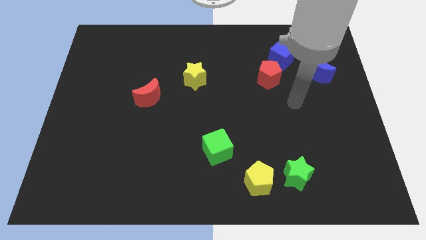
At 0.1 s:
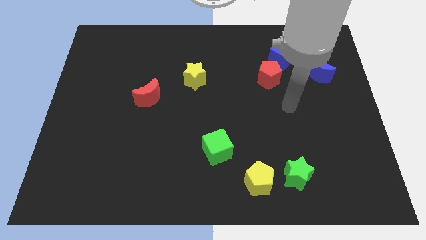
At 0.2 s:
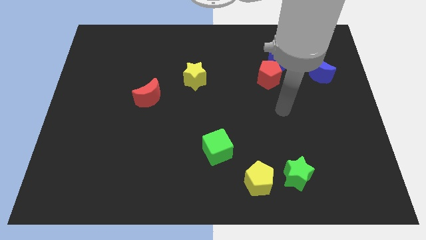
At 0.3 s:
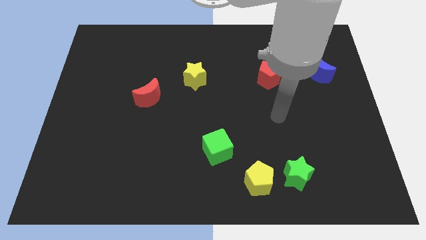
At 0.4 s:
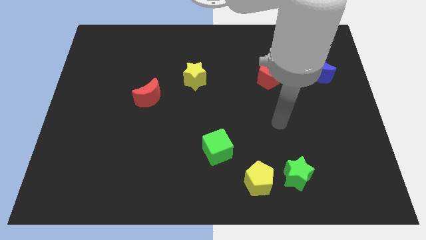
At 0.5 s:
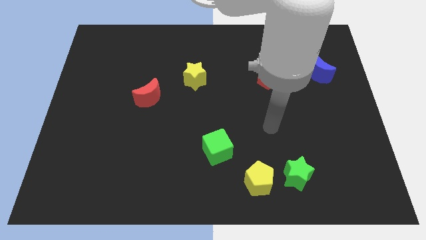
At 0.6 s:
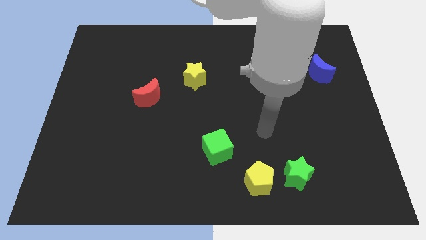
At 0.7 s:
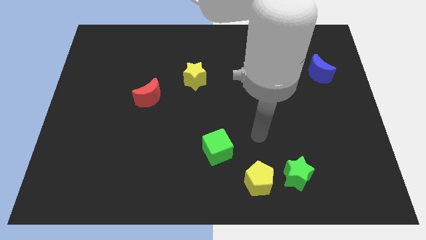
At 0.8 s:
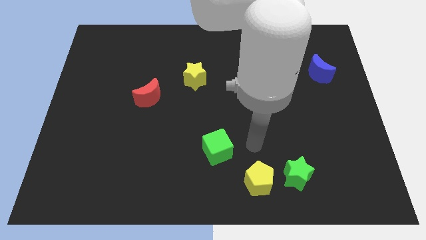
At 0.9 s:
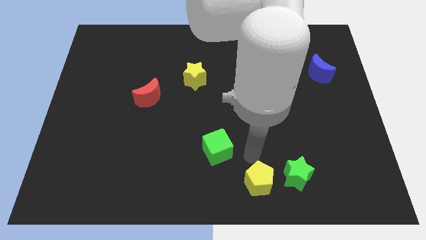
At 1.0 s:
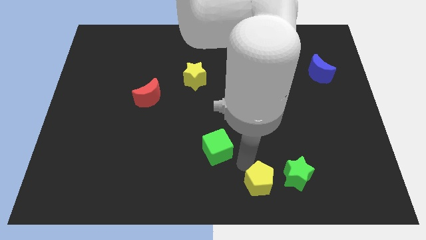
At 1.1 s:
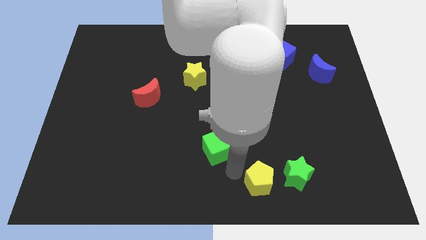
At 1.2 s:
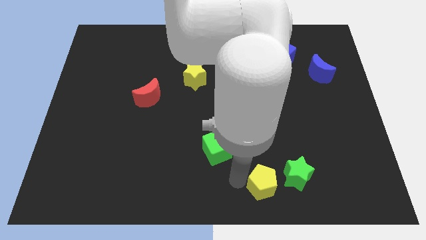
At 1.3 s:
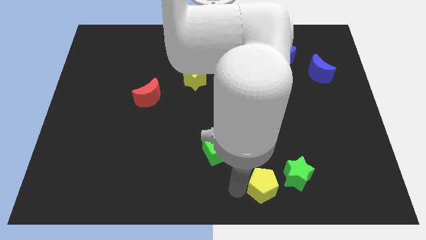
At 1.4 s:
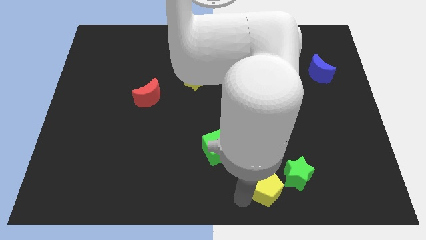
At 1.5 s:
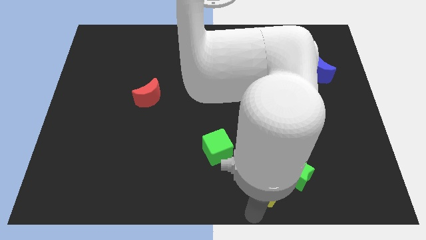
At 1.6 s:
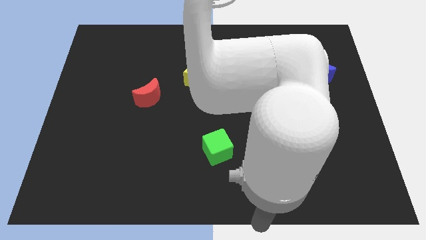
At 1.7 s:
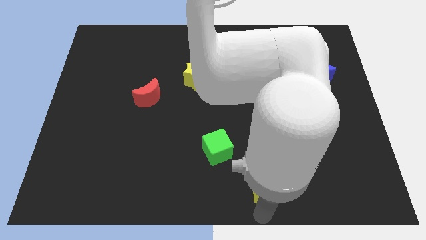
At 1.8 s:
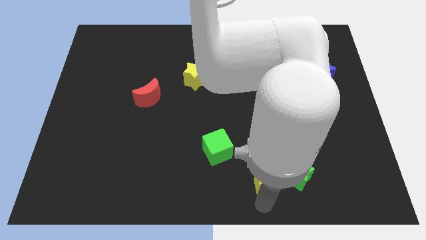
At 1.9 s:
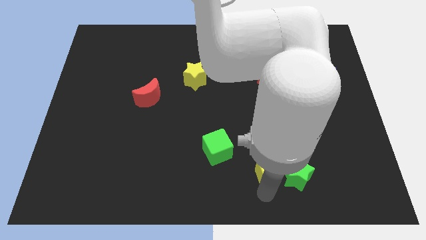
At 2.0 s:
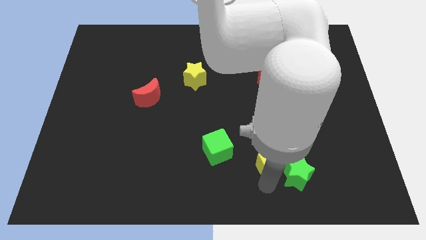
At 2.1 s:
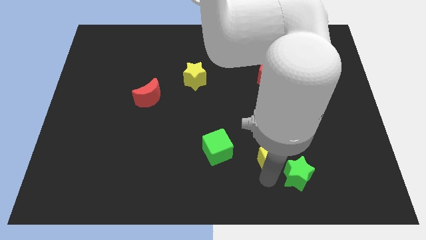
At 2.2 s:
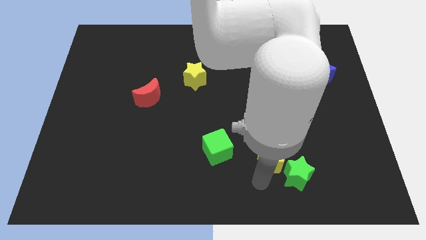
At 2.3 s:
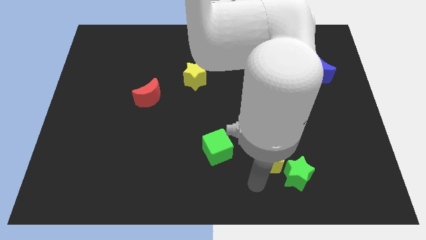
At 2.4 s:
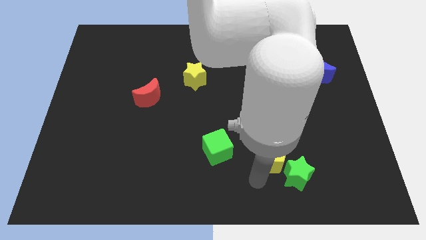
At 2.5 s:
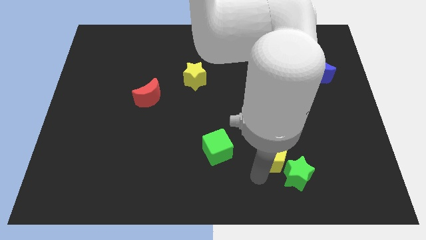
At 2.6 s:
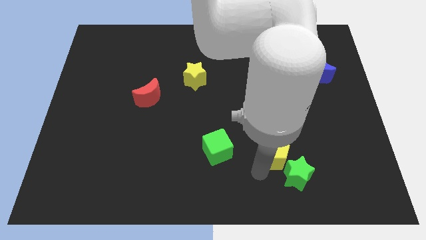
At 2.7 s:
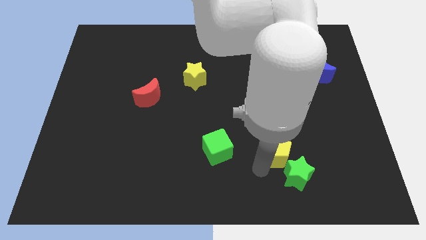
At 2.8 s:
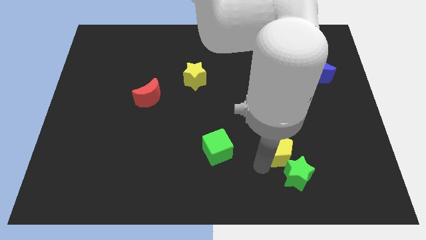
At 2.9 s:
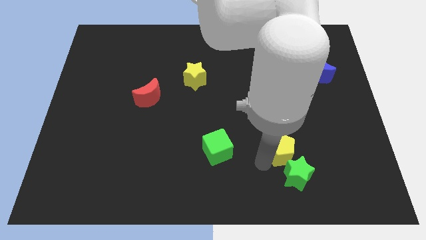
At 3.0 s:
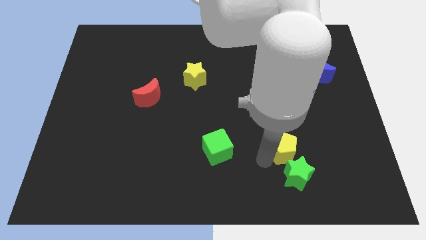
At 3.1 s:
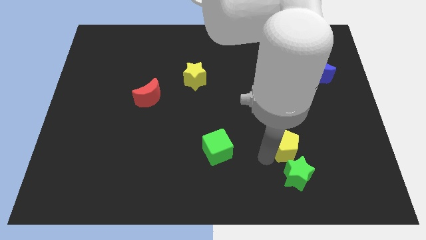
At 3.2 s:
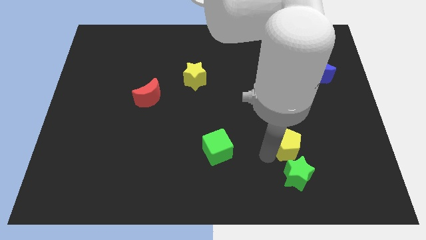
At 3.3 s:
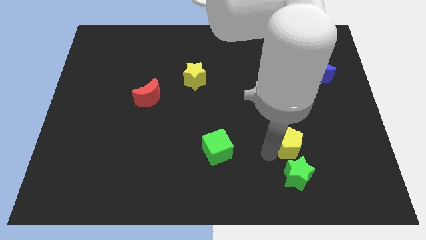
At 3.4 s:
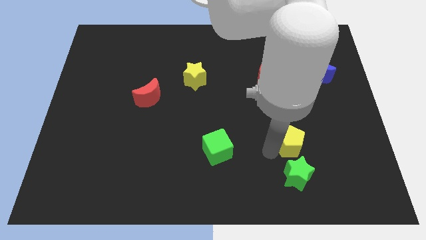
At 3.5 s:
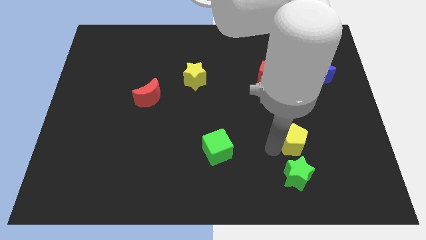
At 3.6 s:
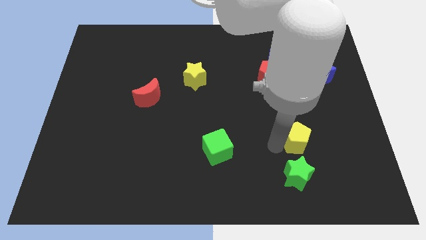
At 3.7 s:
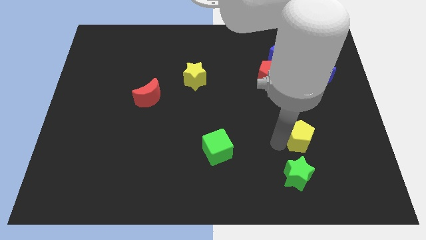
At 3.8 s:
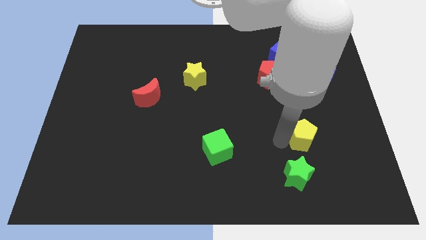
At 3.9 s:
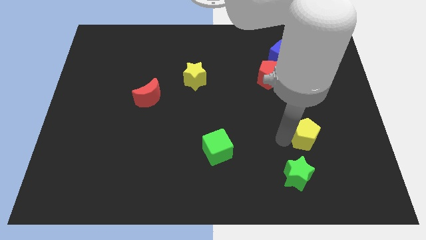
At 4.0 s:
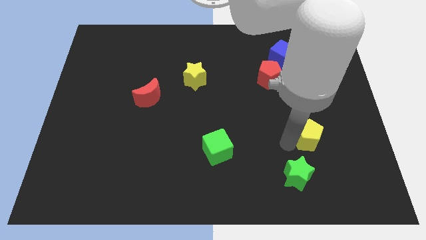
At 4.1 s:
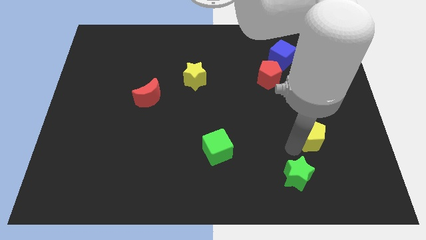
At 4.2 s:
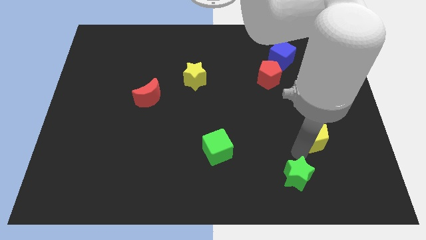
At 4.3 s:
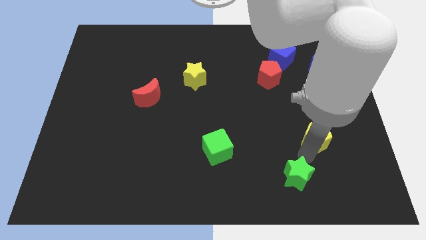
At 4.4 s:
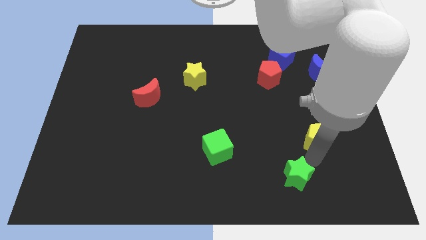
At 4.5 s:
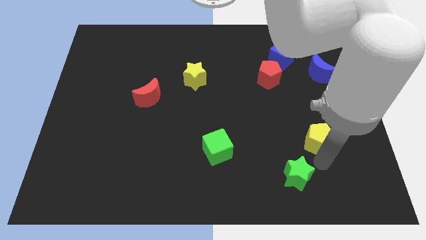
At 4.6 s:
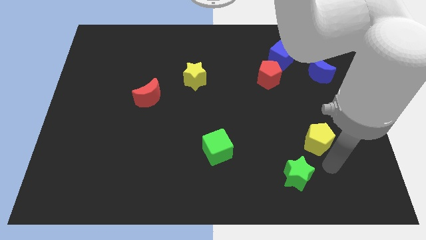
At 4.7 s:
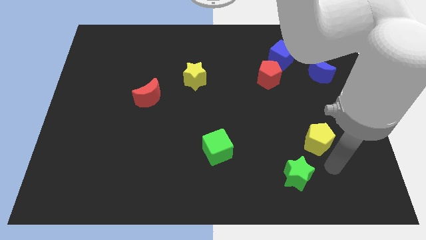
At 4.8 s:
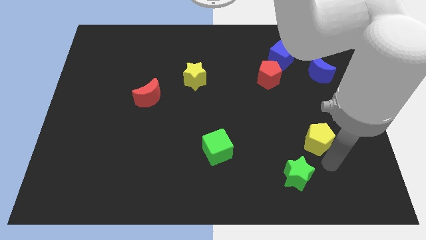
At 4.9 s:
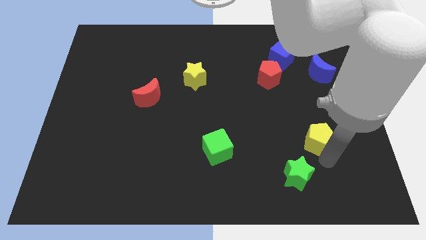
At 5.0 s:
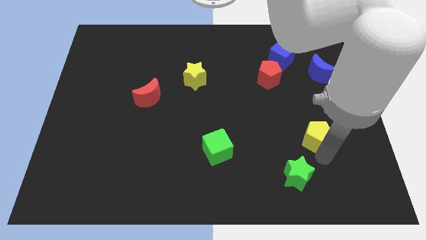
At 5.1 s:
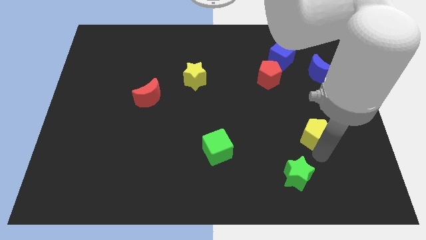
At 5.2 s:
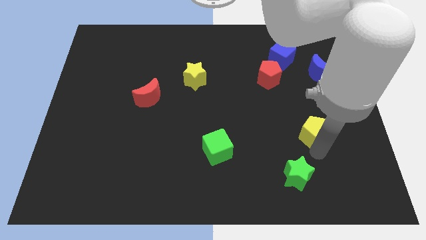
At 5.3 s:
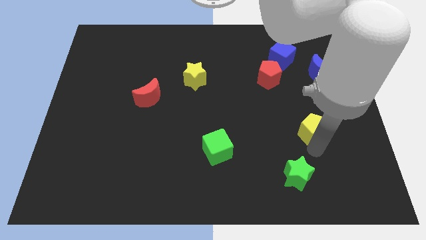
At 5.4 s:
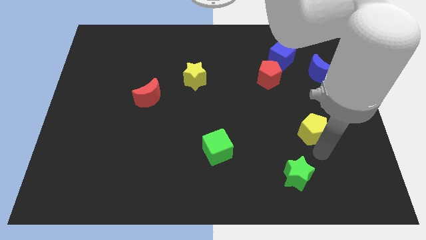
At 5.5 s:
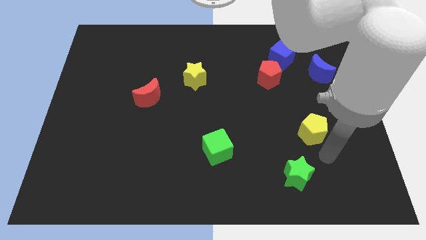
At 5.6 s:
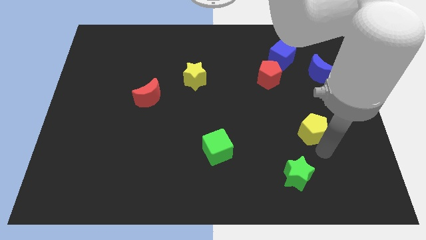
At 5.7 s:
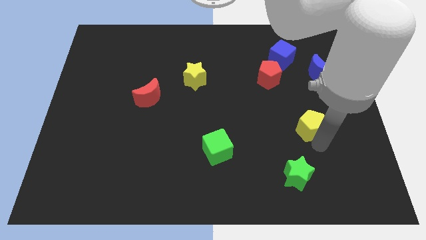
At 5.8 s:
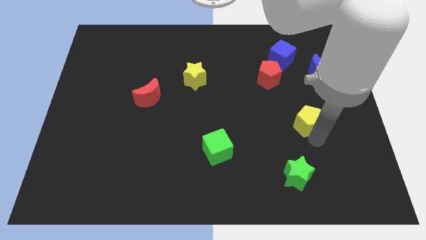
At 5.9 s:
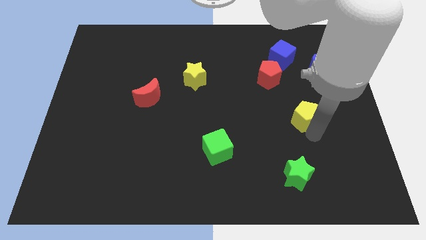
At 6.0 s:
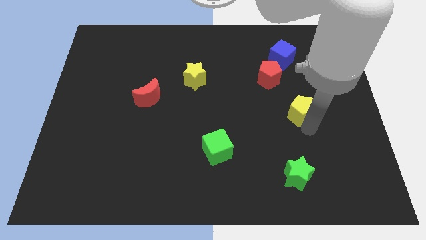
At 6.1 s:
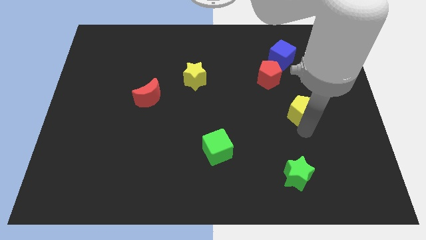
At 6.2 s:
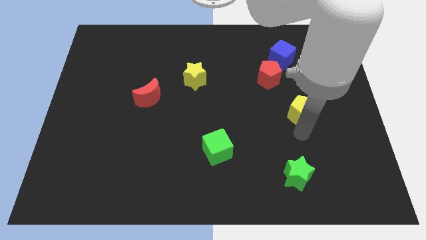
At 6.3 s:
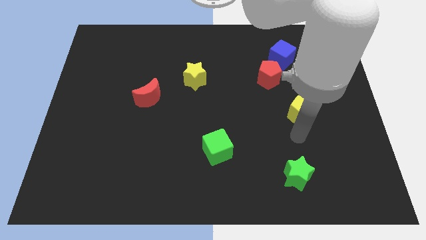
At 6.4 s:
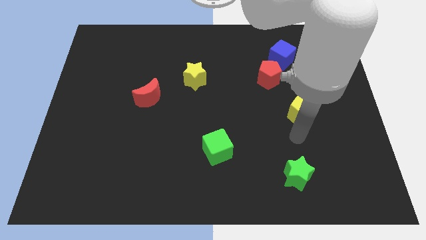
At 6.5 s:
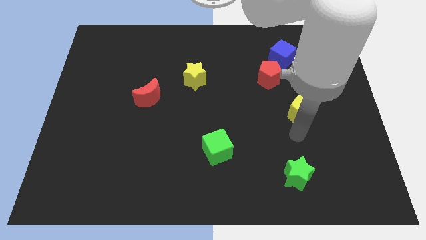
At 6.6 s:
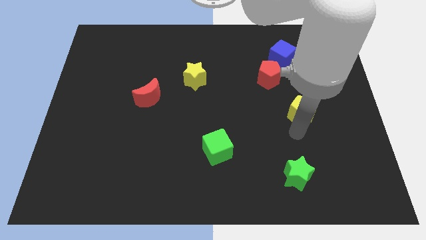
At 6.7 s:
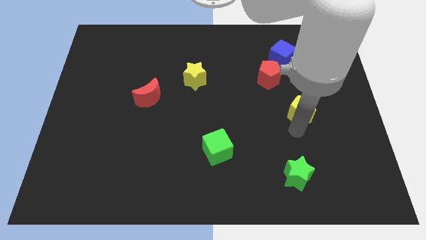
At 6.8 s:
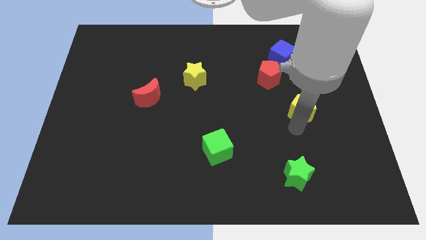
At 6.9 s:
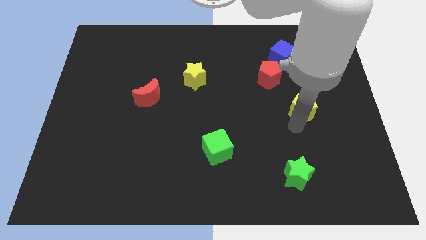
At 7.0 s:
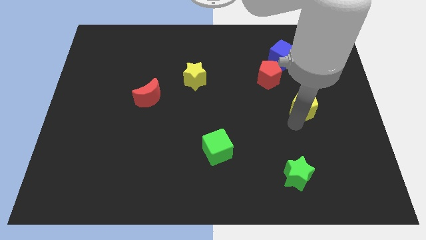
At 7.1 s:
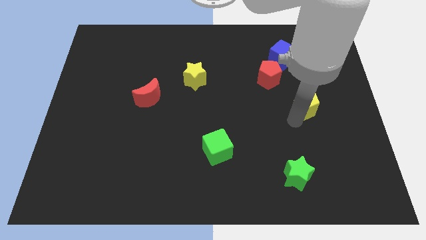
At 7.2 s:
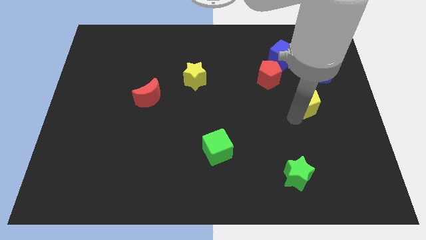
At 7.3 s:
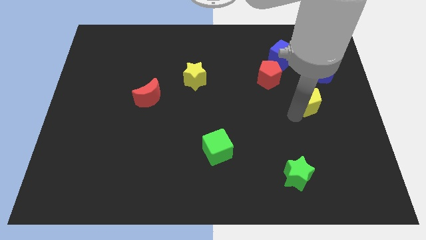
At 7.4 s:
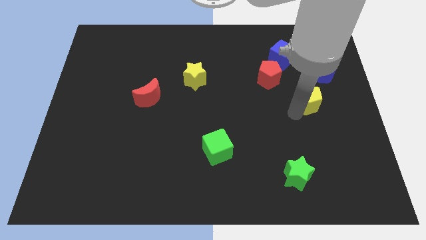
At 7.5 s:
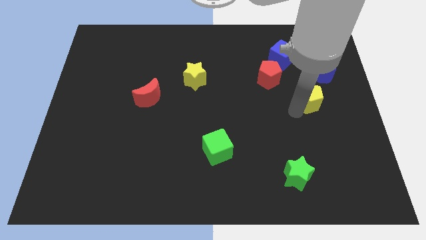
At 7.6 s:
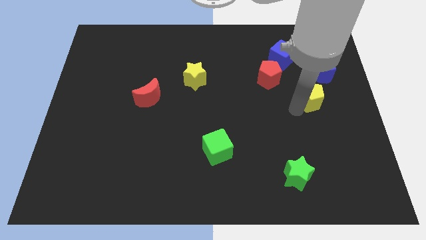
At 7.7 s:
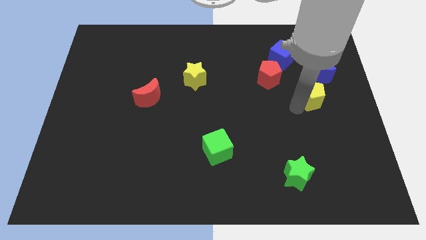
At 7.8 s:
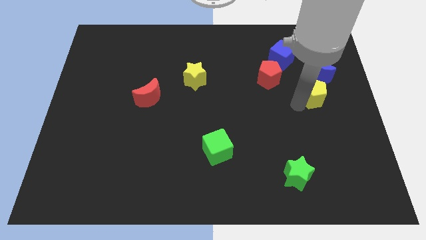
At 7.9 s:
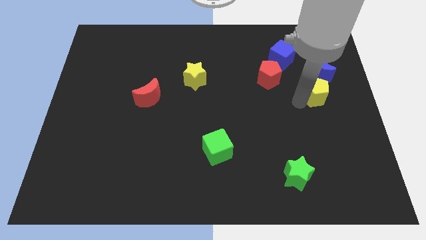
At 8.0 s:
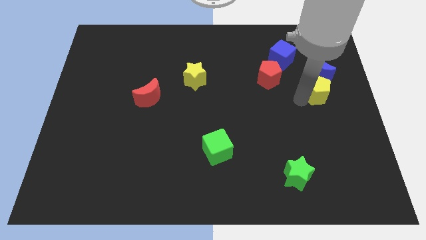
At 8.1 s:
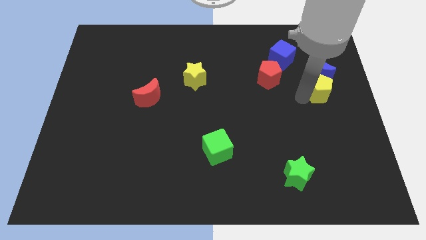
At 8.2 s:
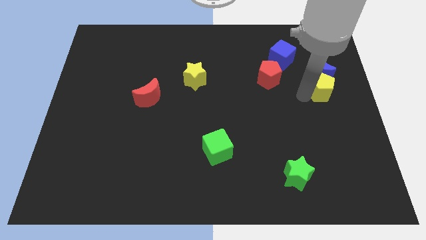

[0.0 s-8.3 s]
push the yellow pentagon to the blue moon
